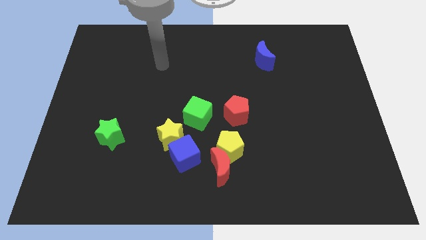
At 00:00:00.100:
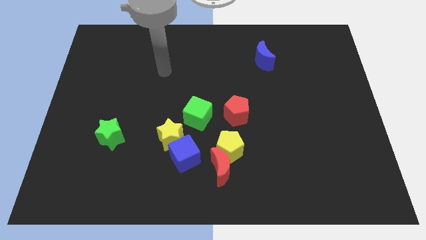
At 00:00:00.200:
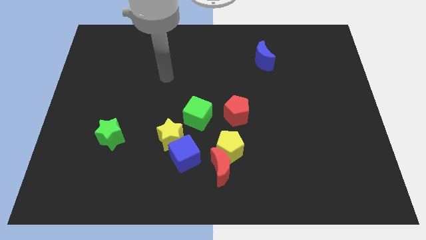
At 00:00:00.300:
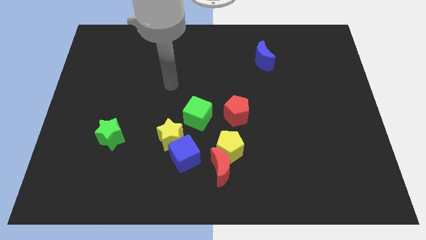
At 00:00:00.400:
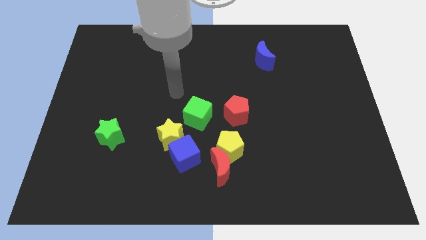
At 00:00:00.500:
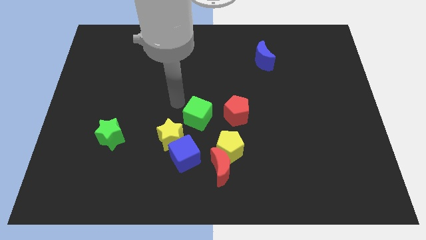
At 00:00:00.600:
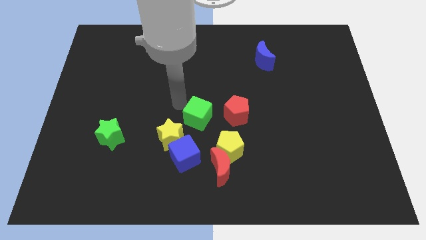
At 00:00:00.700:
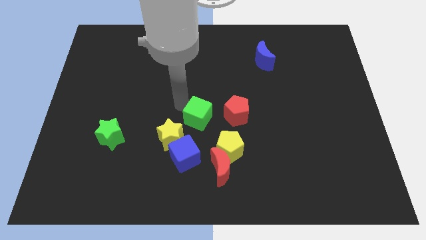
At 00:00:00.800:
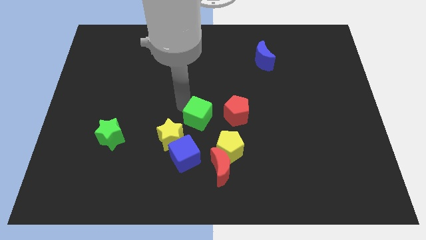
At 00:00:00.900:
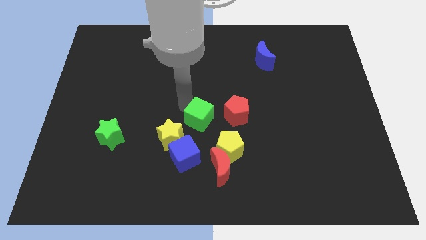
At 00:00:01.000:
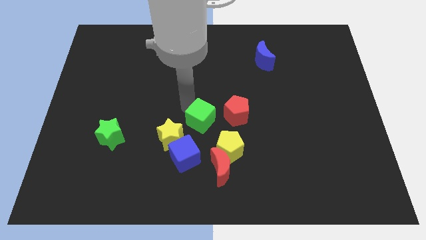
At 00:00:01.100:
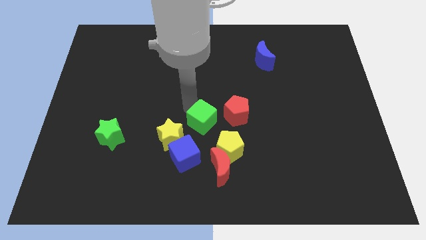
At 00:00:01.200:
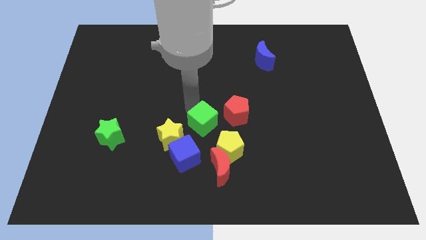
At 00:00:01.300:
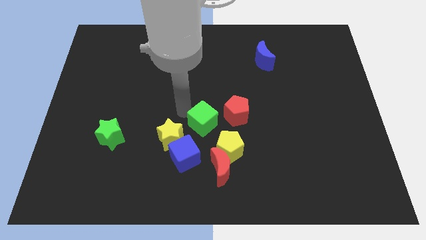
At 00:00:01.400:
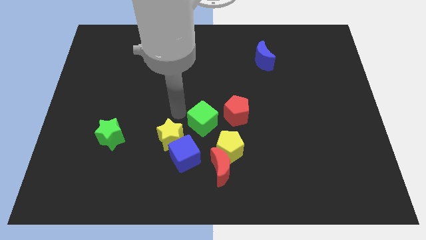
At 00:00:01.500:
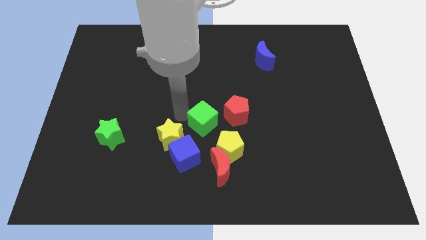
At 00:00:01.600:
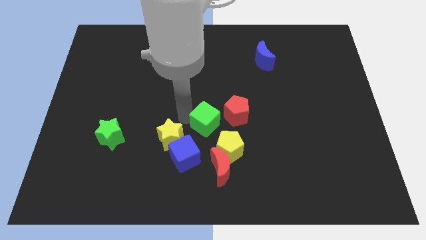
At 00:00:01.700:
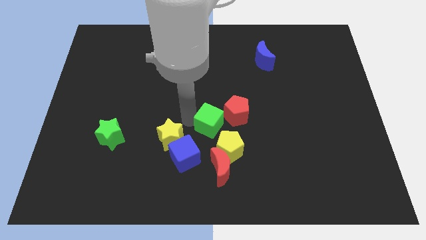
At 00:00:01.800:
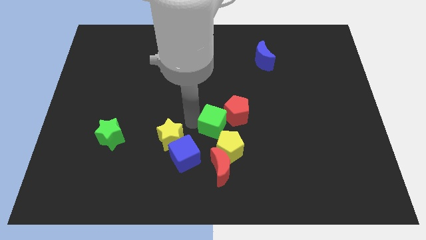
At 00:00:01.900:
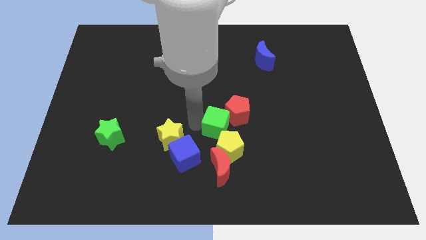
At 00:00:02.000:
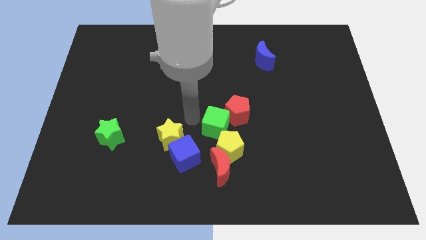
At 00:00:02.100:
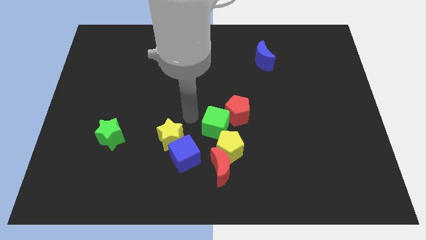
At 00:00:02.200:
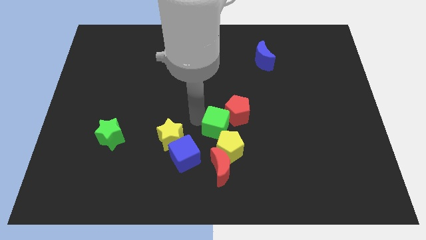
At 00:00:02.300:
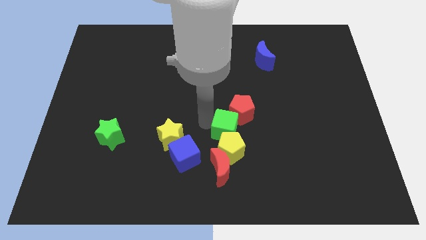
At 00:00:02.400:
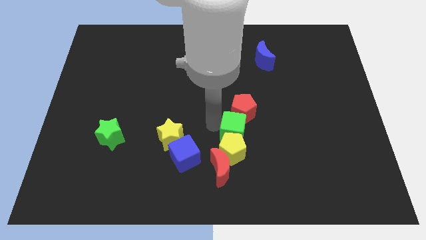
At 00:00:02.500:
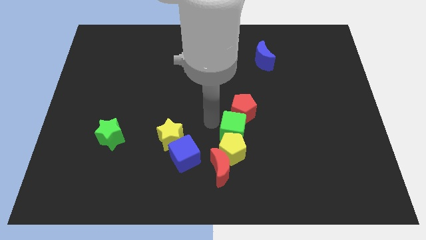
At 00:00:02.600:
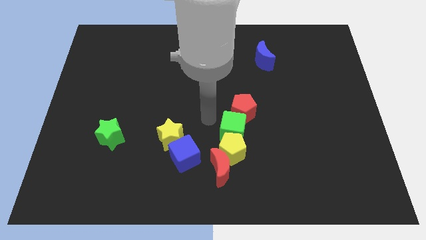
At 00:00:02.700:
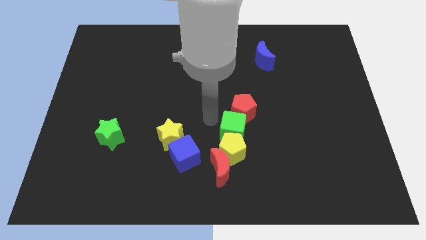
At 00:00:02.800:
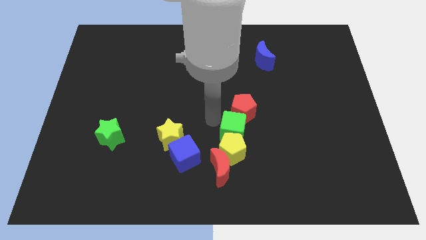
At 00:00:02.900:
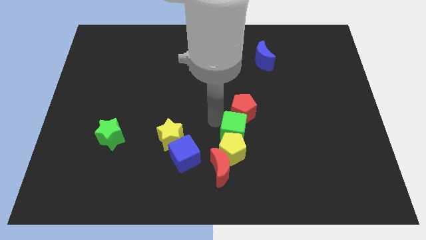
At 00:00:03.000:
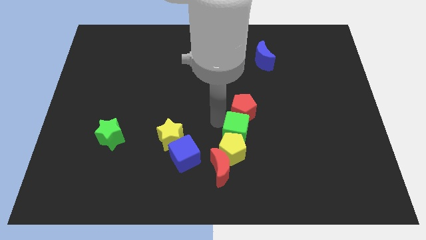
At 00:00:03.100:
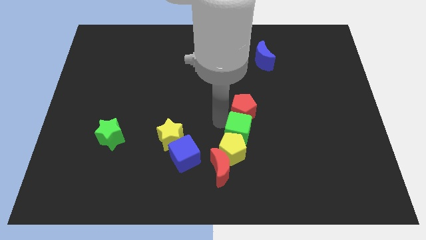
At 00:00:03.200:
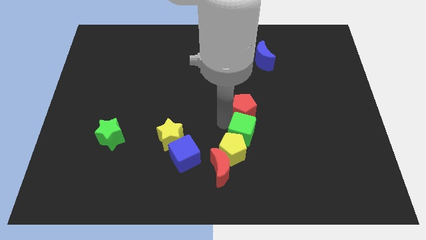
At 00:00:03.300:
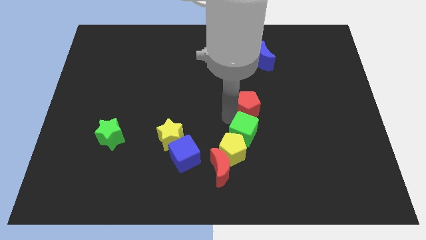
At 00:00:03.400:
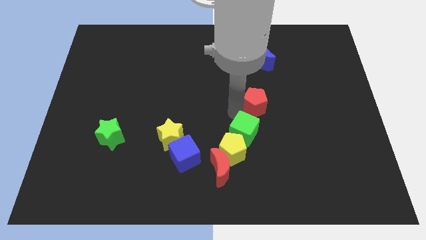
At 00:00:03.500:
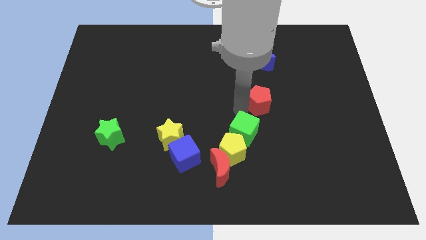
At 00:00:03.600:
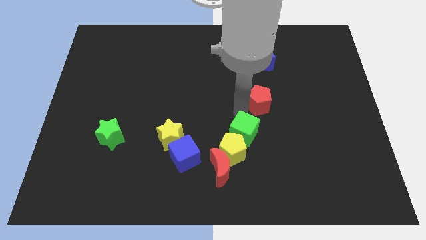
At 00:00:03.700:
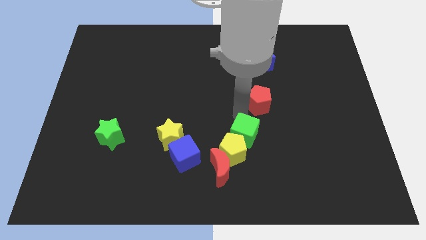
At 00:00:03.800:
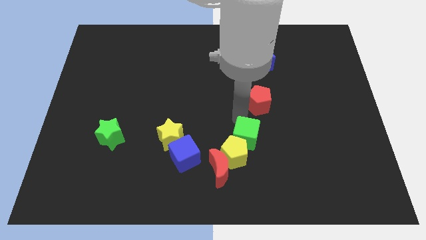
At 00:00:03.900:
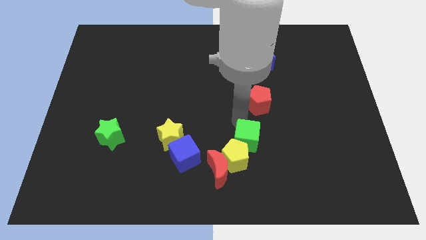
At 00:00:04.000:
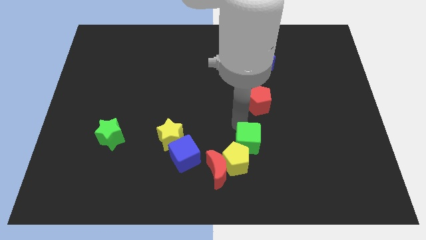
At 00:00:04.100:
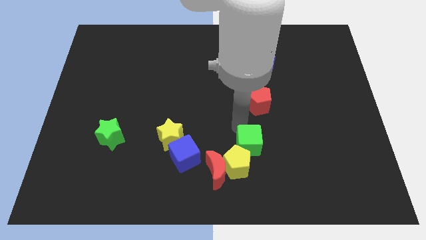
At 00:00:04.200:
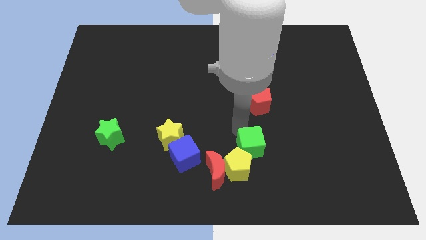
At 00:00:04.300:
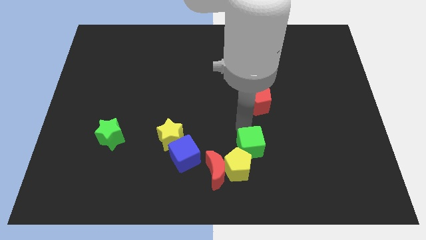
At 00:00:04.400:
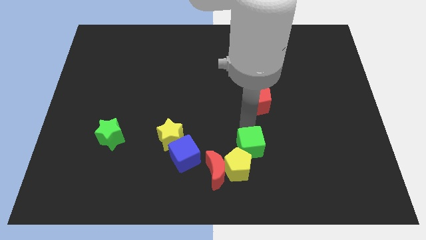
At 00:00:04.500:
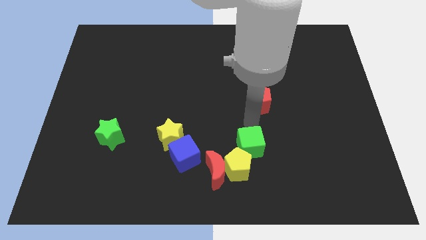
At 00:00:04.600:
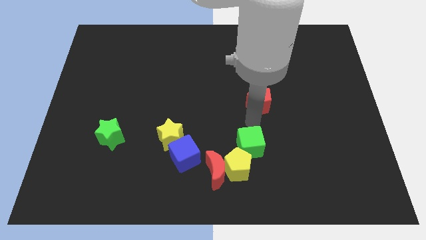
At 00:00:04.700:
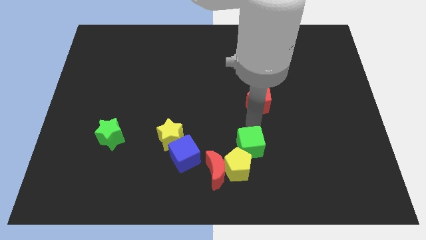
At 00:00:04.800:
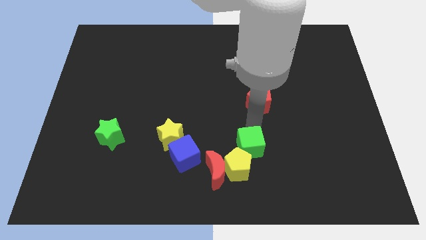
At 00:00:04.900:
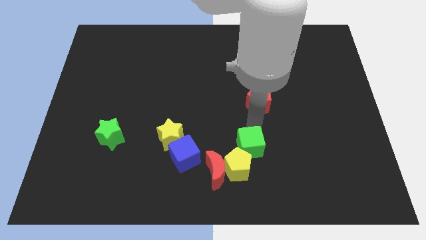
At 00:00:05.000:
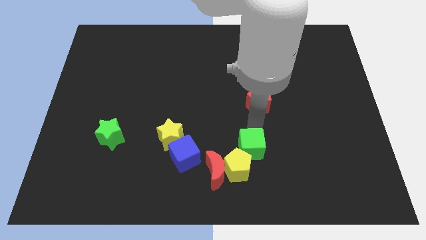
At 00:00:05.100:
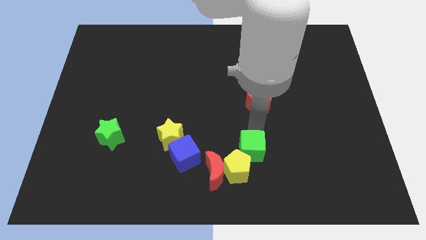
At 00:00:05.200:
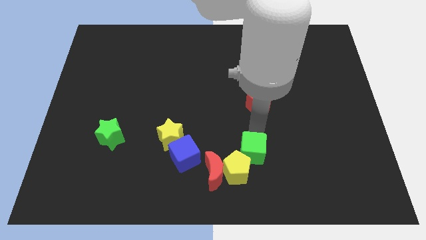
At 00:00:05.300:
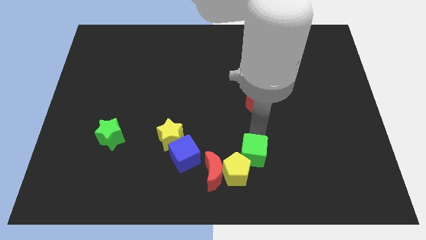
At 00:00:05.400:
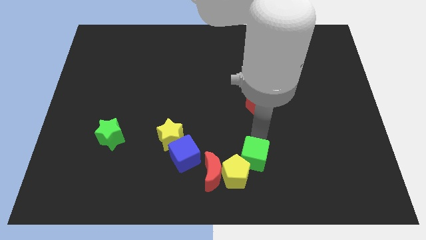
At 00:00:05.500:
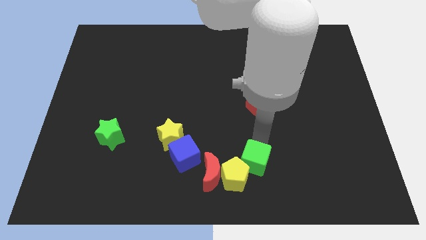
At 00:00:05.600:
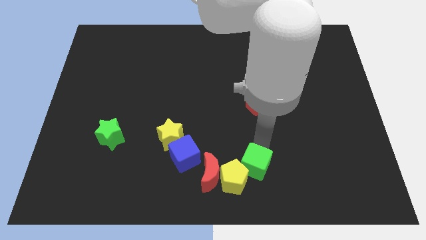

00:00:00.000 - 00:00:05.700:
put the green cube to the bottom

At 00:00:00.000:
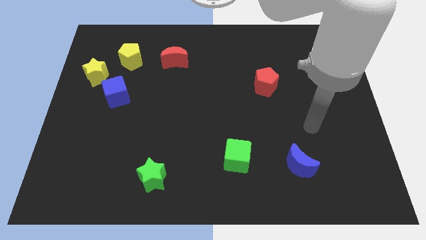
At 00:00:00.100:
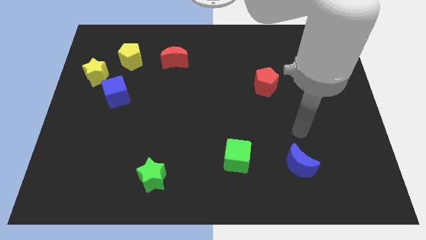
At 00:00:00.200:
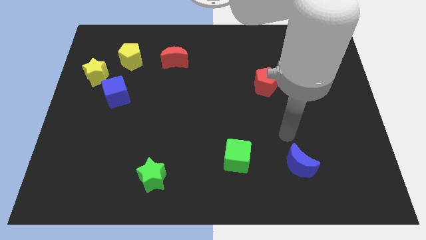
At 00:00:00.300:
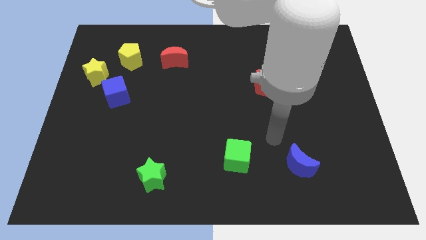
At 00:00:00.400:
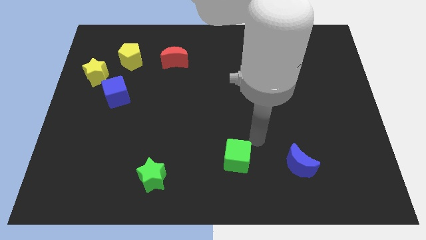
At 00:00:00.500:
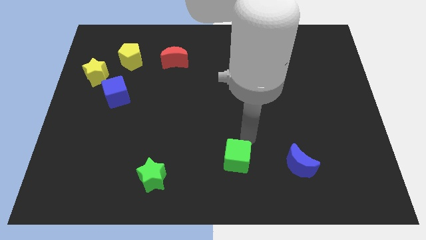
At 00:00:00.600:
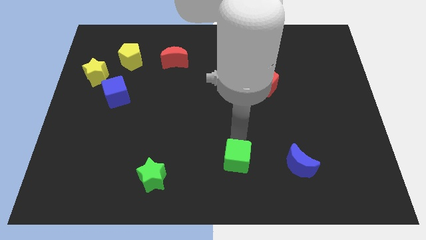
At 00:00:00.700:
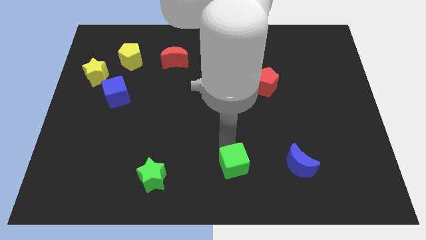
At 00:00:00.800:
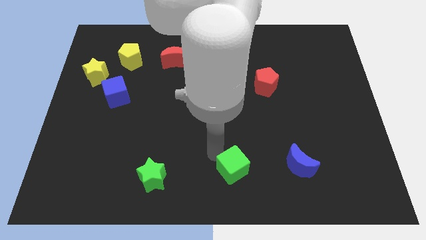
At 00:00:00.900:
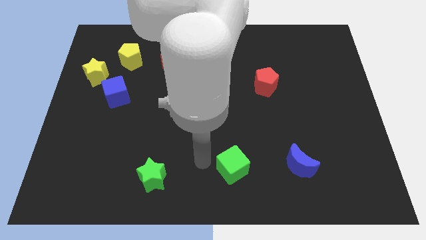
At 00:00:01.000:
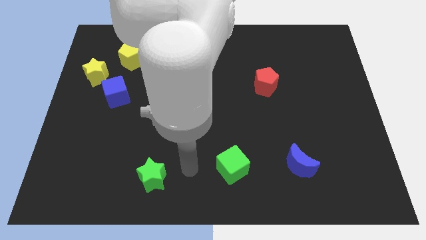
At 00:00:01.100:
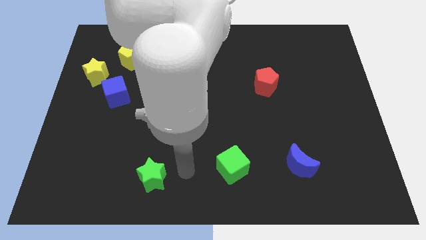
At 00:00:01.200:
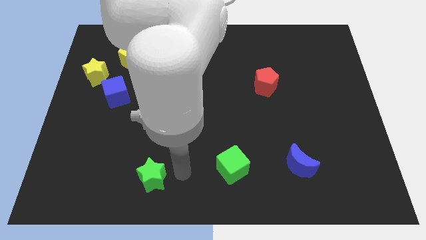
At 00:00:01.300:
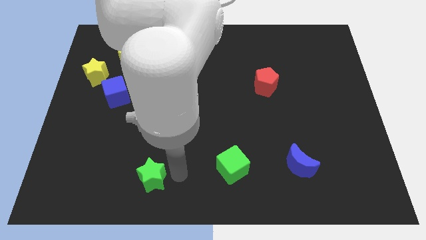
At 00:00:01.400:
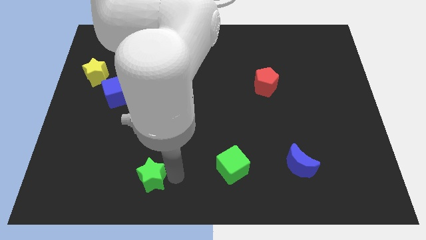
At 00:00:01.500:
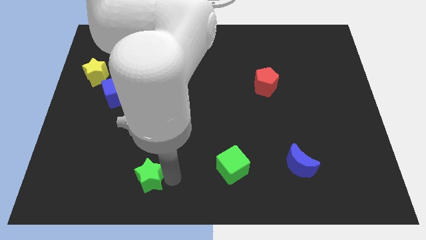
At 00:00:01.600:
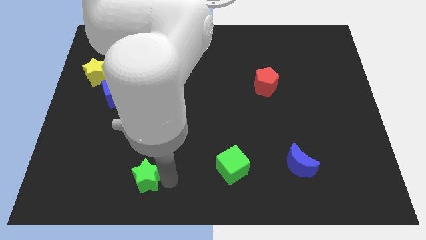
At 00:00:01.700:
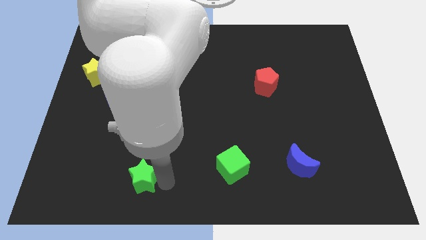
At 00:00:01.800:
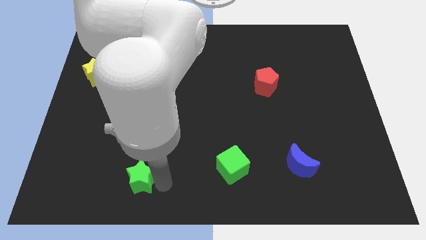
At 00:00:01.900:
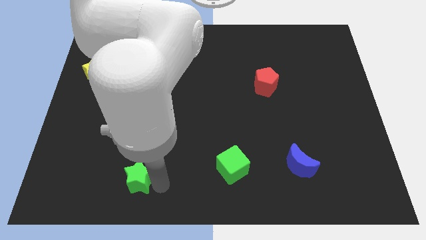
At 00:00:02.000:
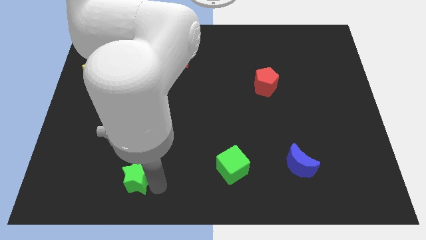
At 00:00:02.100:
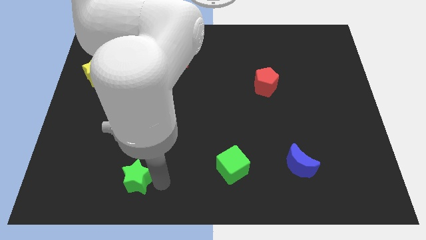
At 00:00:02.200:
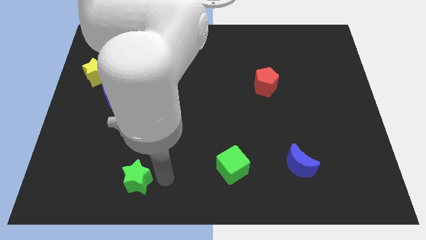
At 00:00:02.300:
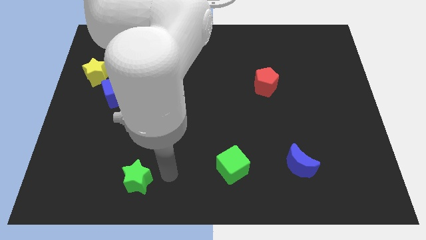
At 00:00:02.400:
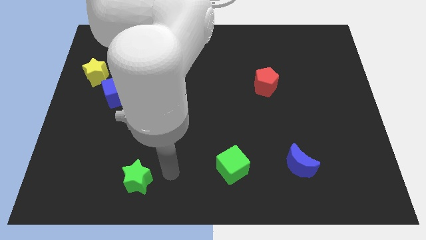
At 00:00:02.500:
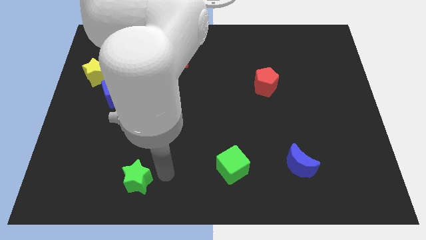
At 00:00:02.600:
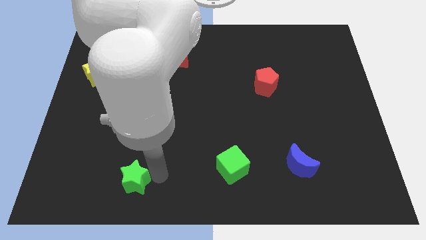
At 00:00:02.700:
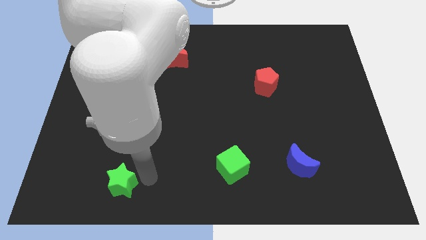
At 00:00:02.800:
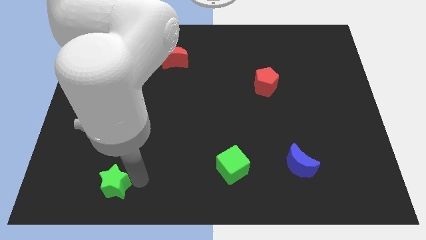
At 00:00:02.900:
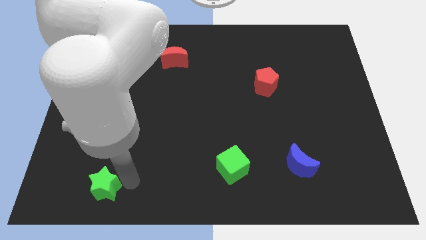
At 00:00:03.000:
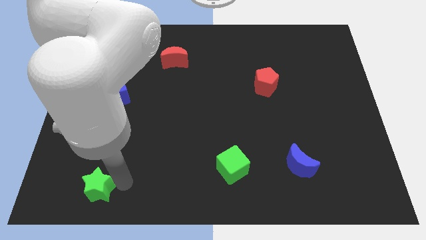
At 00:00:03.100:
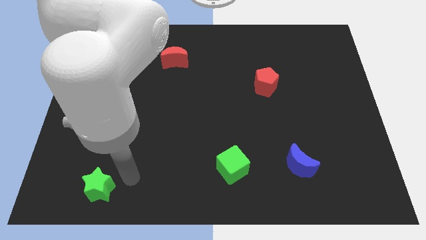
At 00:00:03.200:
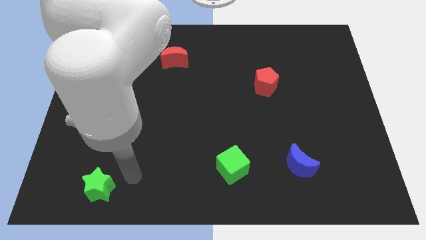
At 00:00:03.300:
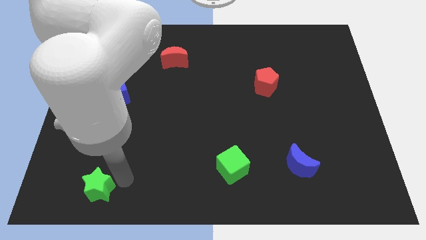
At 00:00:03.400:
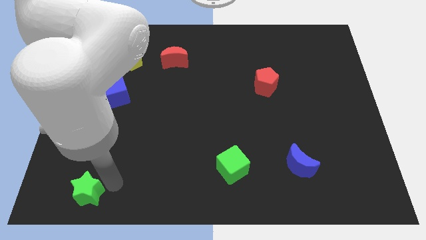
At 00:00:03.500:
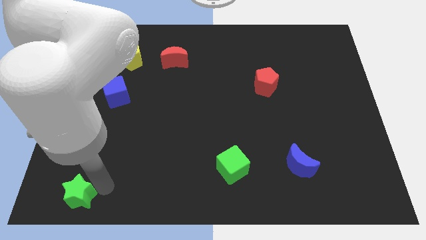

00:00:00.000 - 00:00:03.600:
move the green star to the lower left corner
